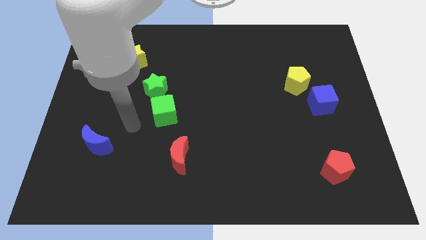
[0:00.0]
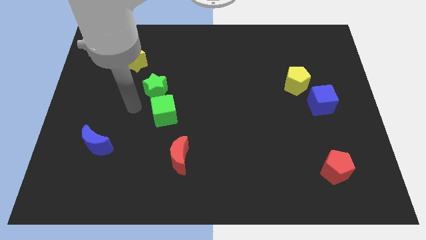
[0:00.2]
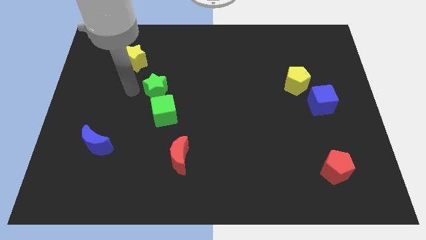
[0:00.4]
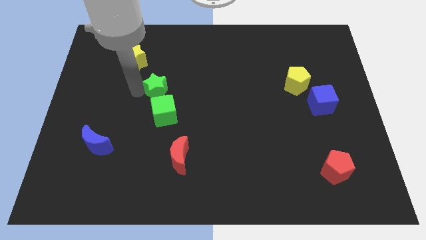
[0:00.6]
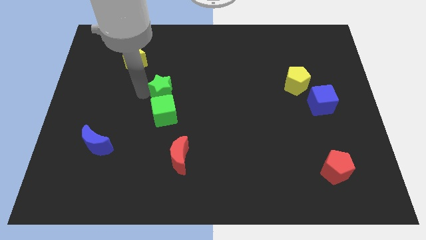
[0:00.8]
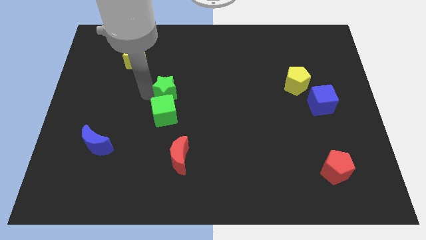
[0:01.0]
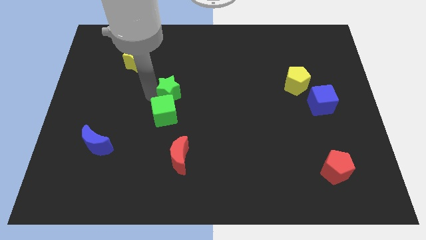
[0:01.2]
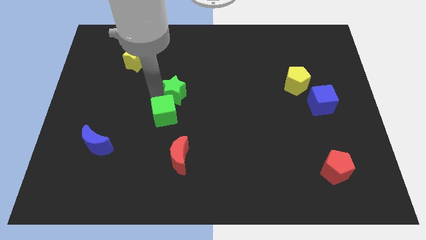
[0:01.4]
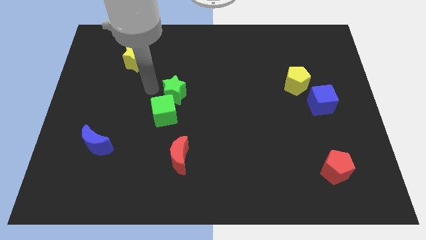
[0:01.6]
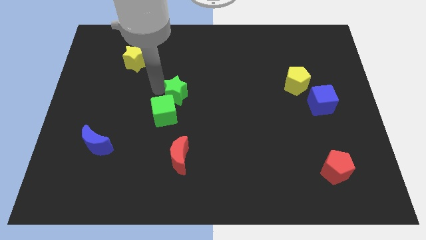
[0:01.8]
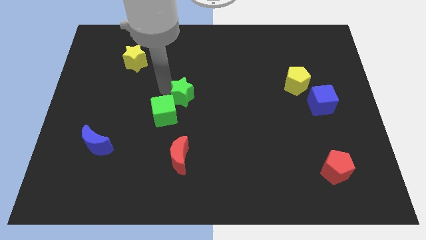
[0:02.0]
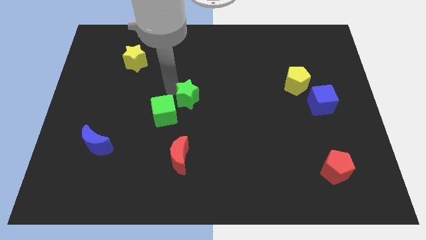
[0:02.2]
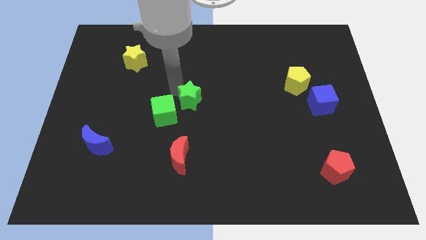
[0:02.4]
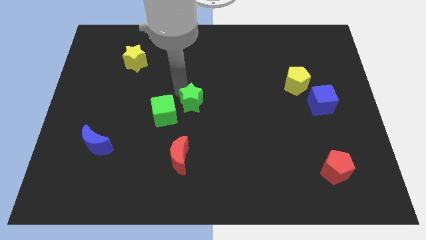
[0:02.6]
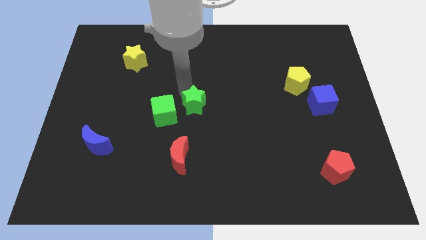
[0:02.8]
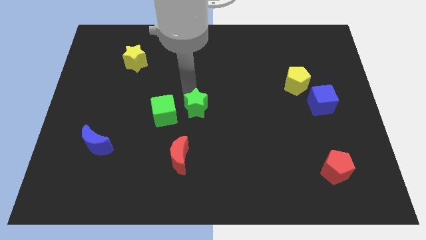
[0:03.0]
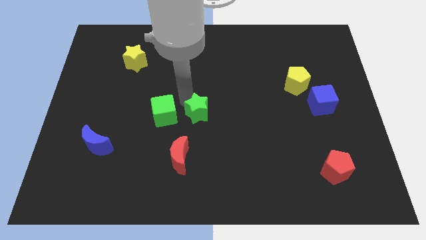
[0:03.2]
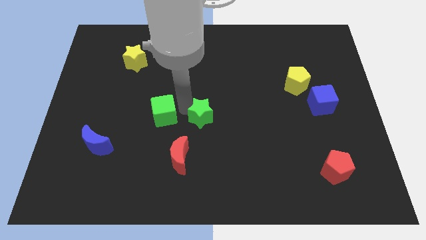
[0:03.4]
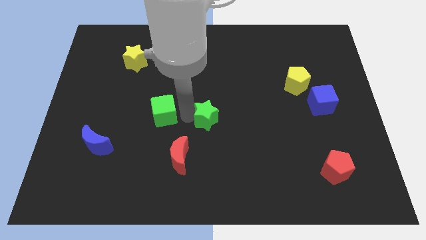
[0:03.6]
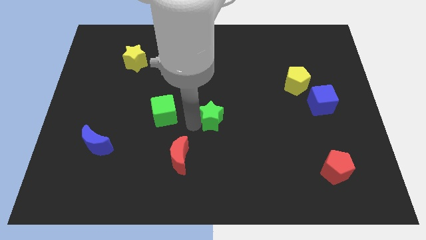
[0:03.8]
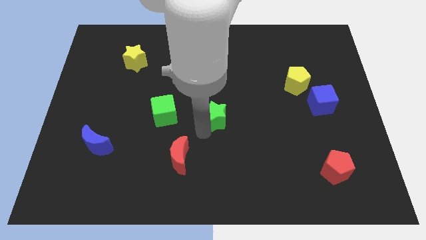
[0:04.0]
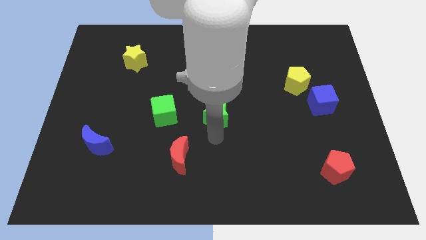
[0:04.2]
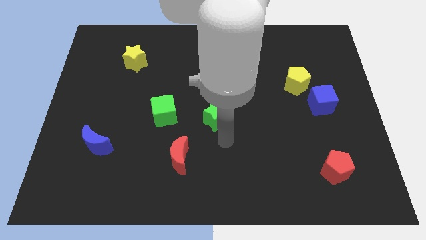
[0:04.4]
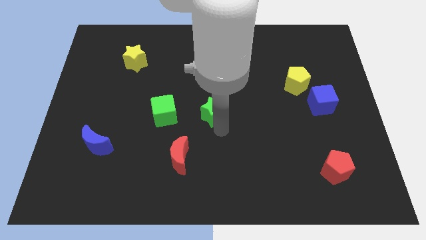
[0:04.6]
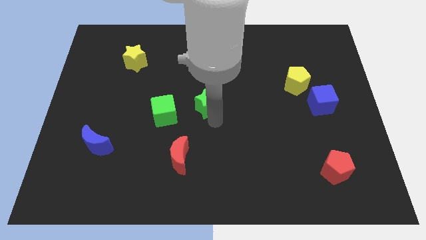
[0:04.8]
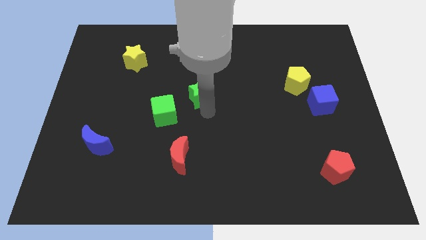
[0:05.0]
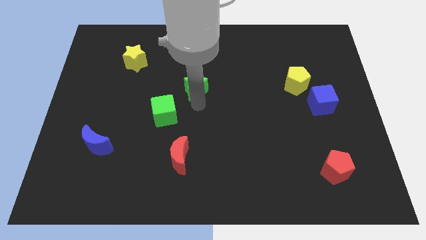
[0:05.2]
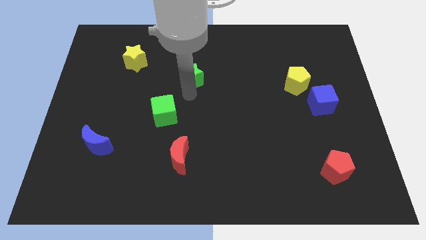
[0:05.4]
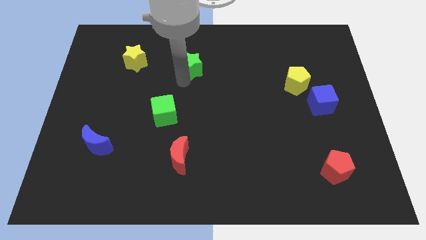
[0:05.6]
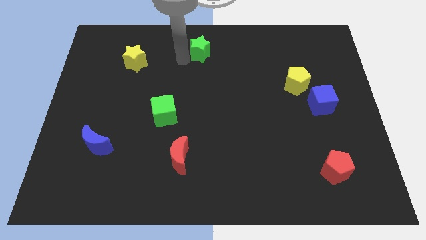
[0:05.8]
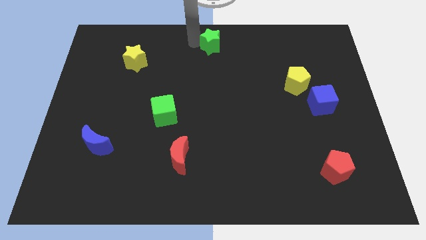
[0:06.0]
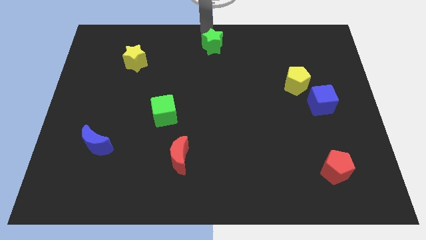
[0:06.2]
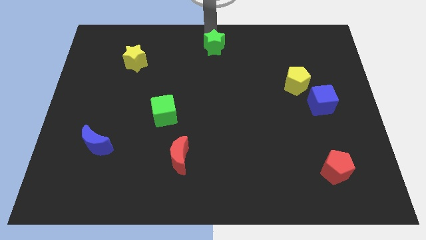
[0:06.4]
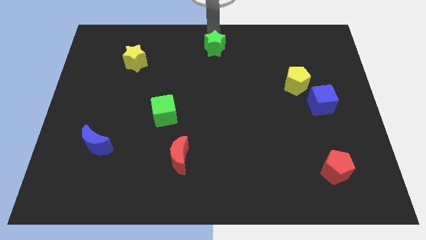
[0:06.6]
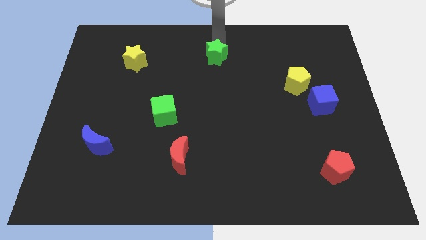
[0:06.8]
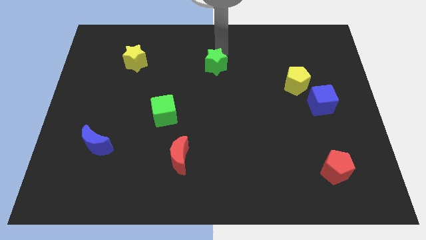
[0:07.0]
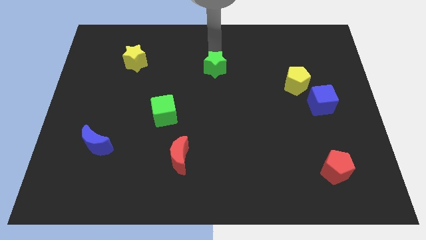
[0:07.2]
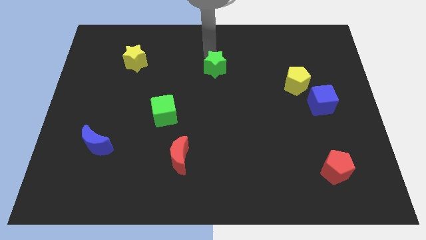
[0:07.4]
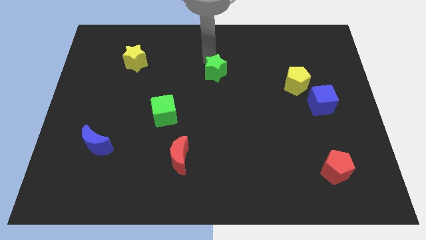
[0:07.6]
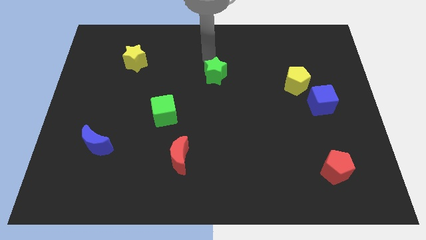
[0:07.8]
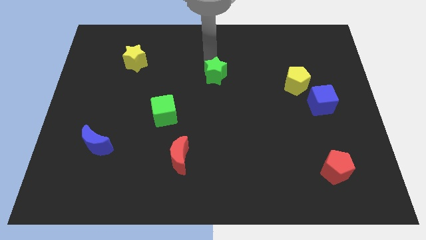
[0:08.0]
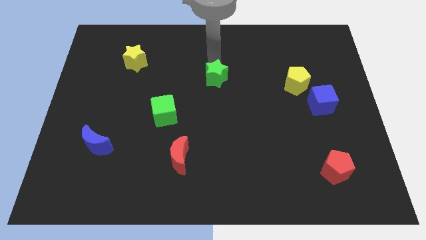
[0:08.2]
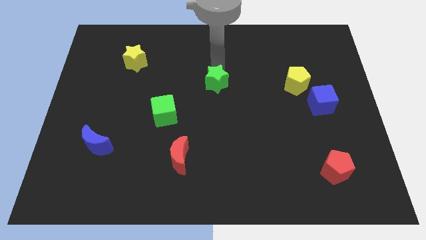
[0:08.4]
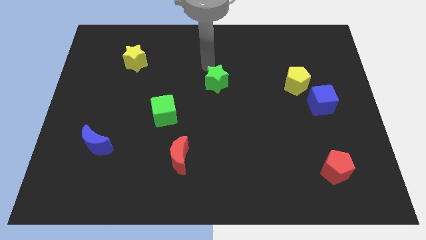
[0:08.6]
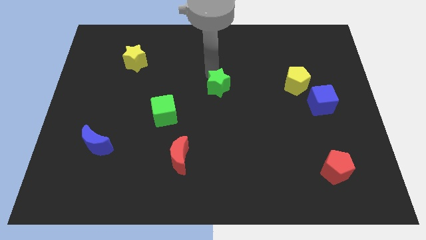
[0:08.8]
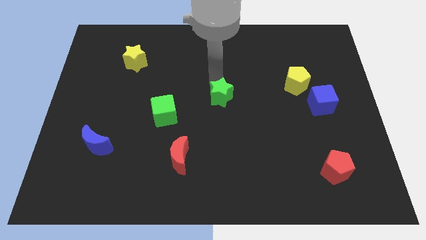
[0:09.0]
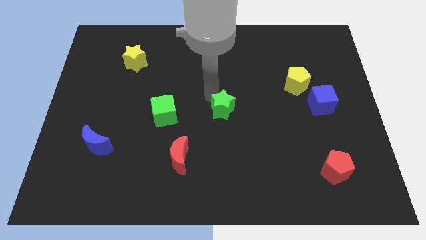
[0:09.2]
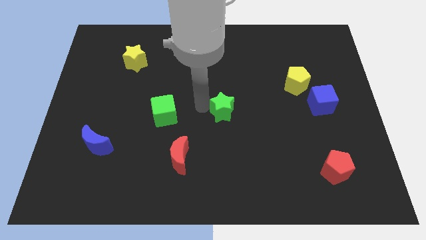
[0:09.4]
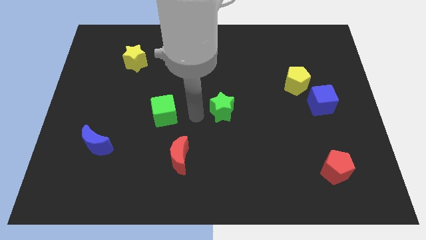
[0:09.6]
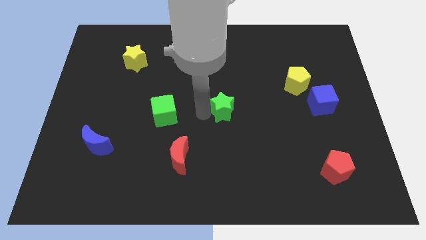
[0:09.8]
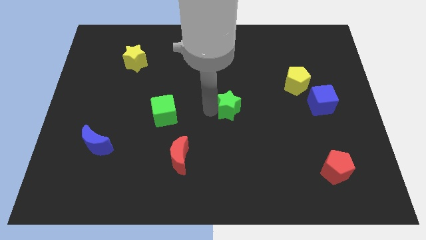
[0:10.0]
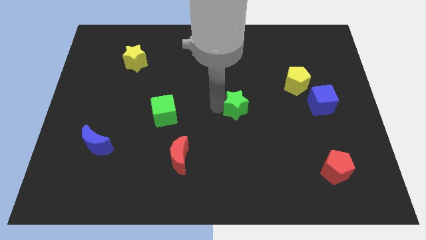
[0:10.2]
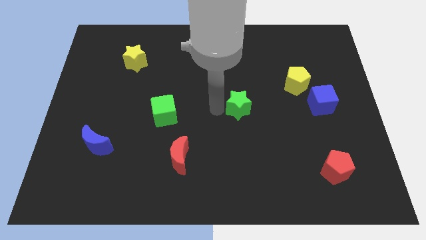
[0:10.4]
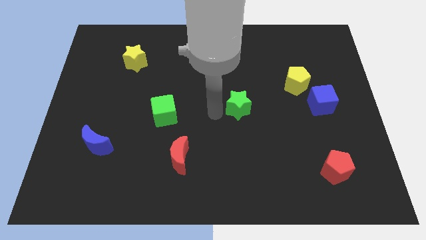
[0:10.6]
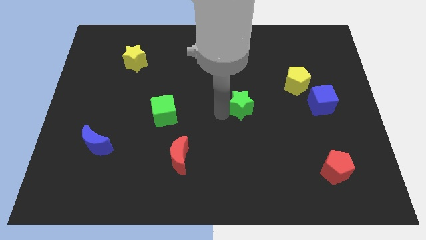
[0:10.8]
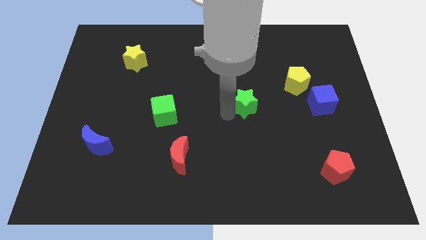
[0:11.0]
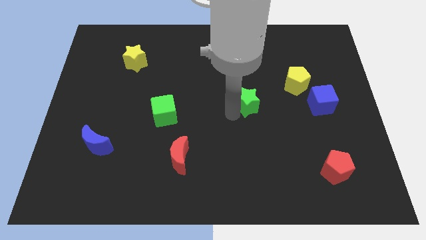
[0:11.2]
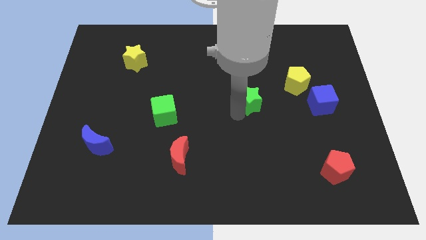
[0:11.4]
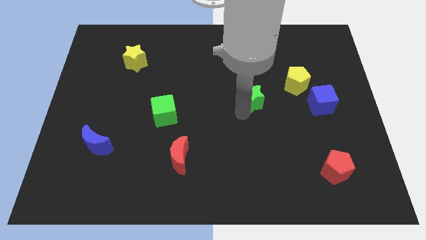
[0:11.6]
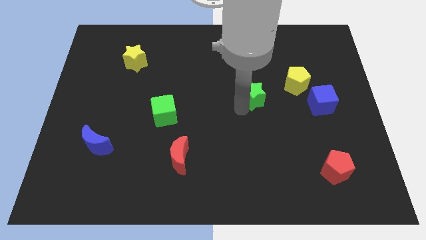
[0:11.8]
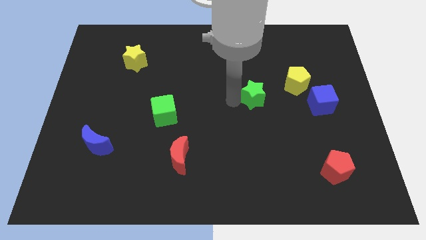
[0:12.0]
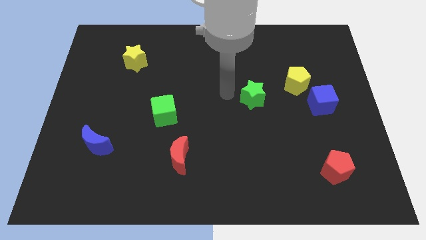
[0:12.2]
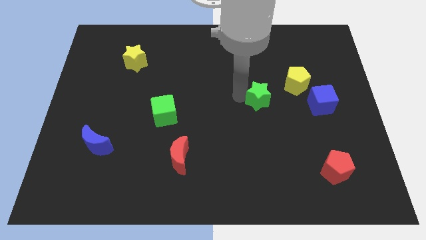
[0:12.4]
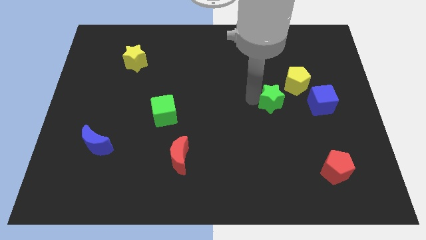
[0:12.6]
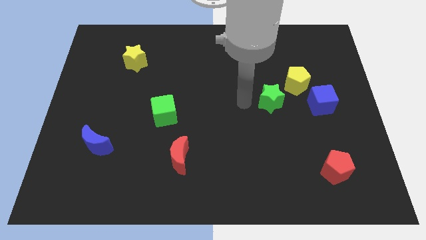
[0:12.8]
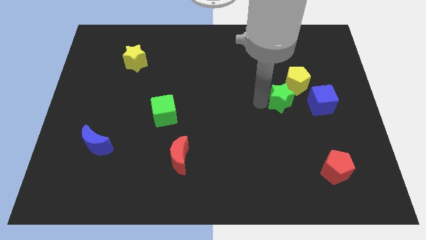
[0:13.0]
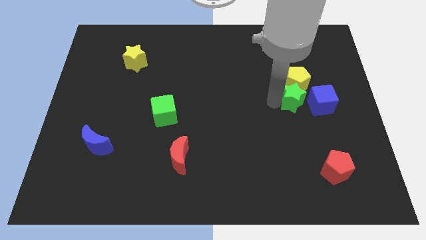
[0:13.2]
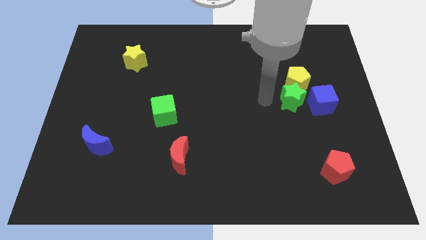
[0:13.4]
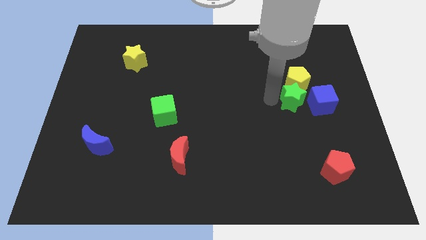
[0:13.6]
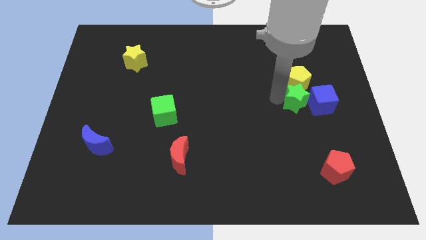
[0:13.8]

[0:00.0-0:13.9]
move the green star to the blue cube
